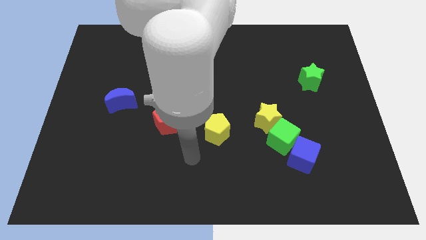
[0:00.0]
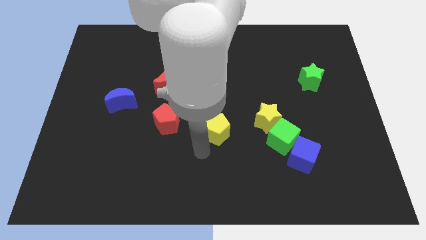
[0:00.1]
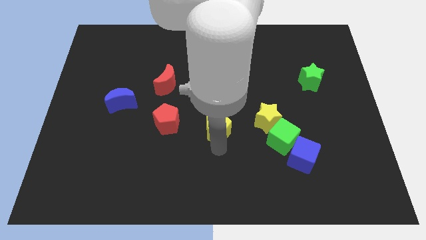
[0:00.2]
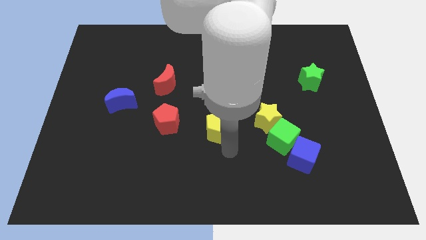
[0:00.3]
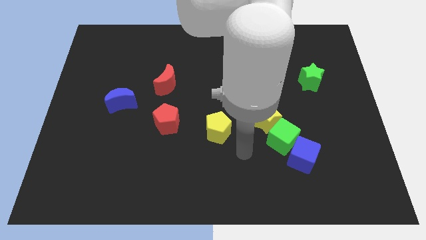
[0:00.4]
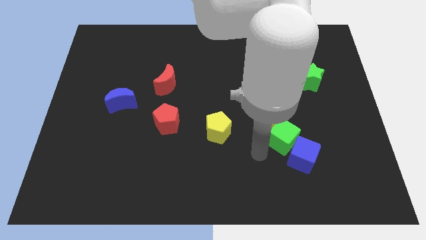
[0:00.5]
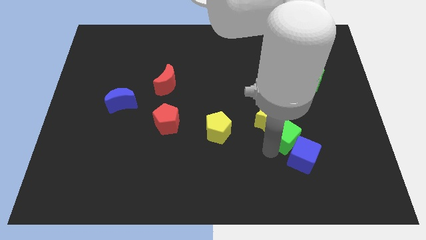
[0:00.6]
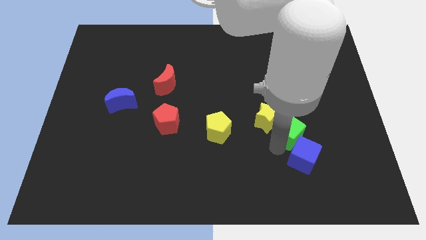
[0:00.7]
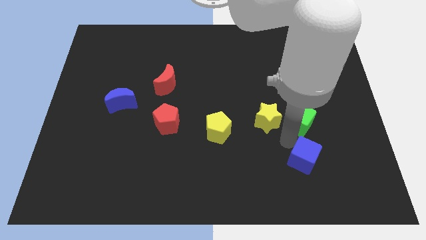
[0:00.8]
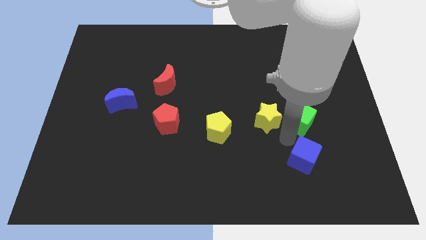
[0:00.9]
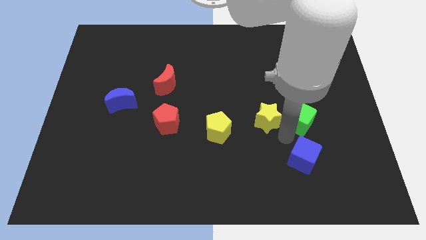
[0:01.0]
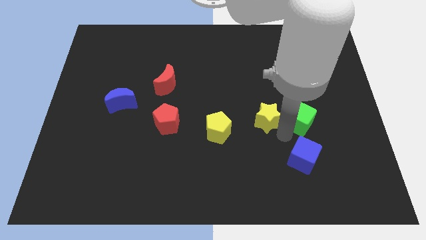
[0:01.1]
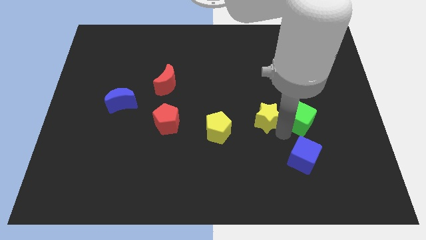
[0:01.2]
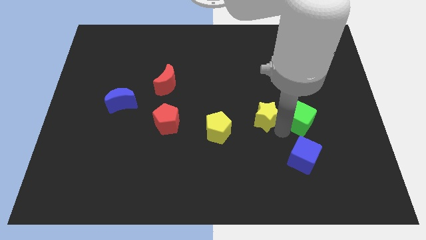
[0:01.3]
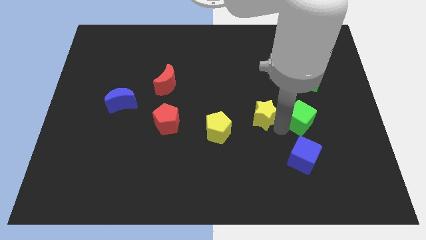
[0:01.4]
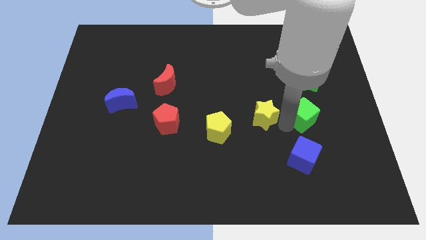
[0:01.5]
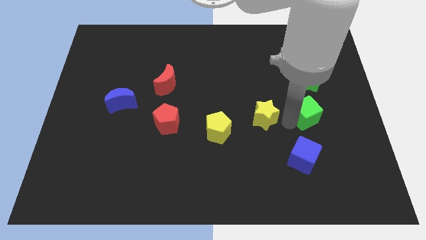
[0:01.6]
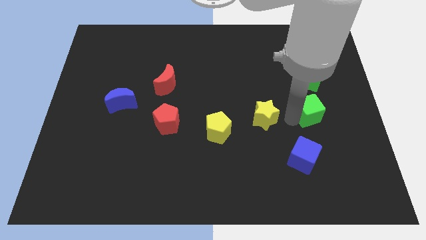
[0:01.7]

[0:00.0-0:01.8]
move the yellow star away from the green cube

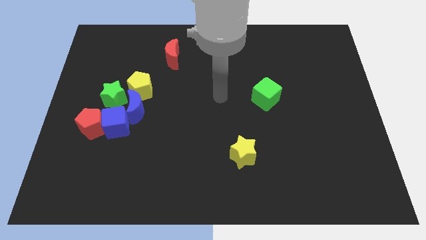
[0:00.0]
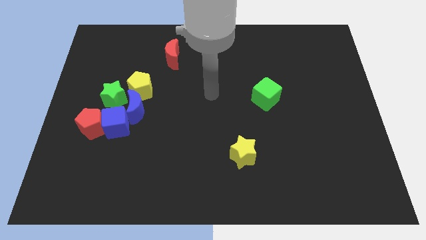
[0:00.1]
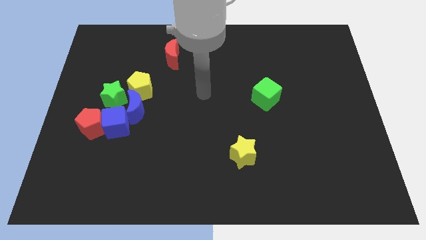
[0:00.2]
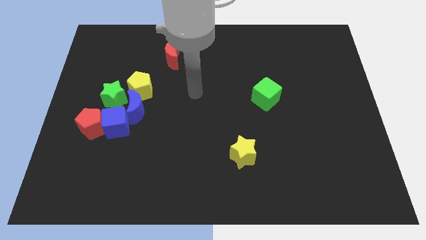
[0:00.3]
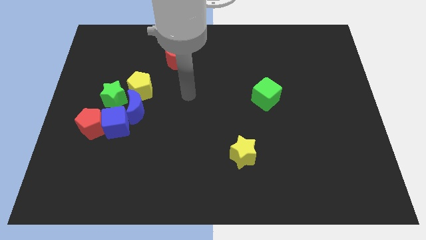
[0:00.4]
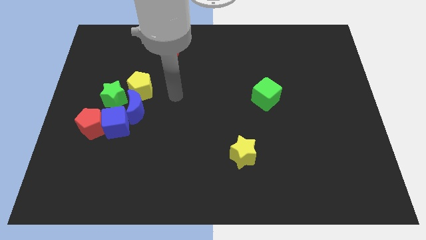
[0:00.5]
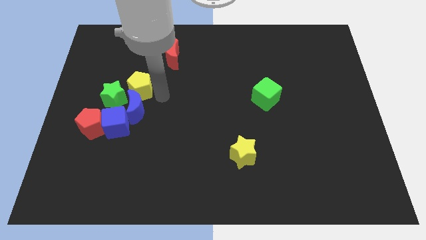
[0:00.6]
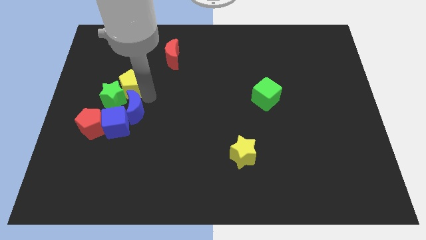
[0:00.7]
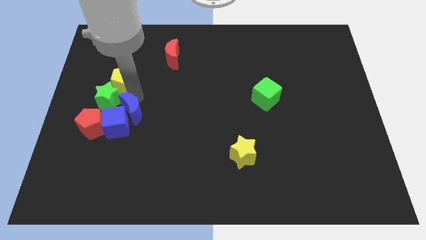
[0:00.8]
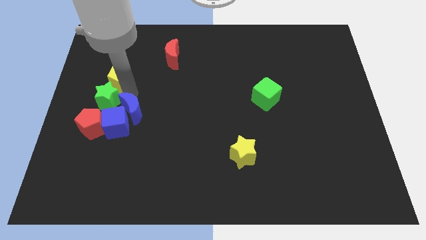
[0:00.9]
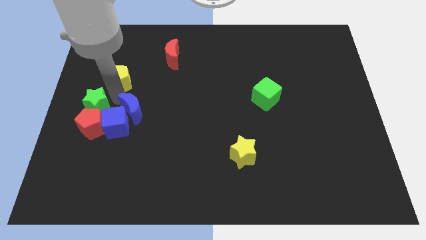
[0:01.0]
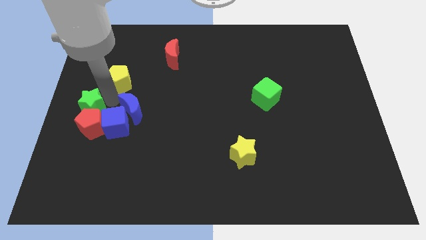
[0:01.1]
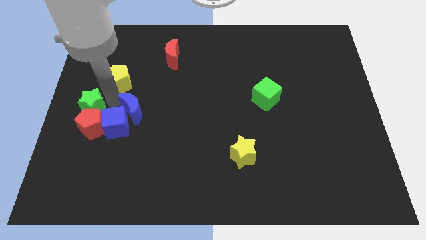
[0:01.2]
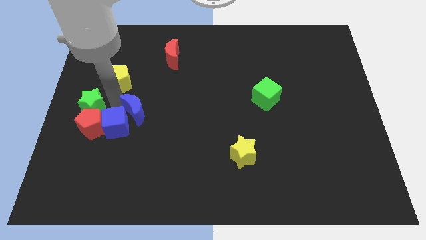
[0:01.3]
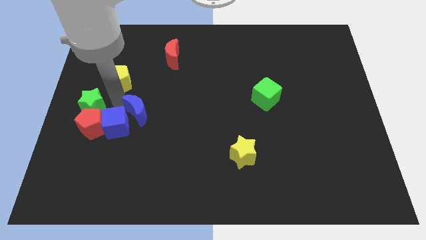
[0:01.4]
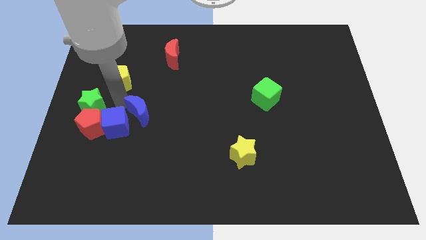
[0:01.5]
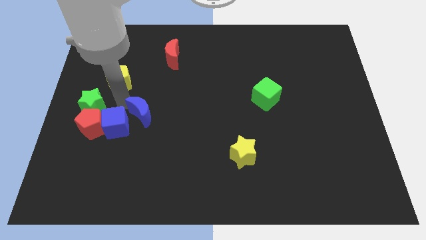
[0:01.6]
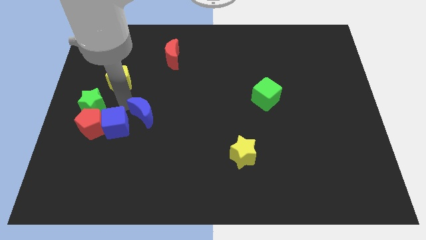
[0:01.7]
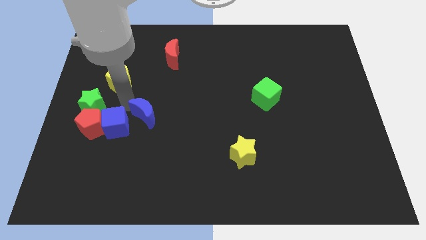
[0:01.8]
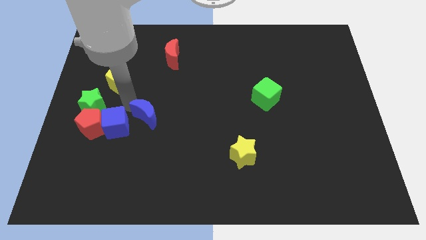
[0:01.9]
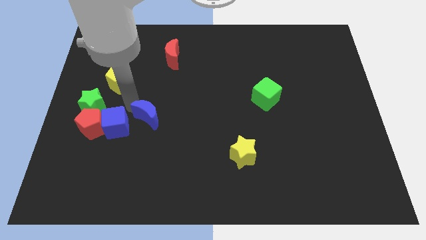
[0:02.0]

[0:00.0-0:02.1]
move the blue moon away from the clump

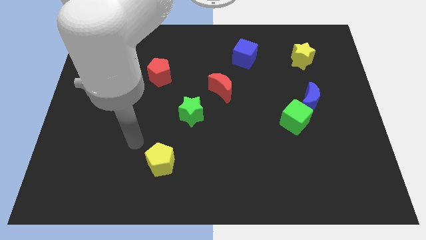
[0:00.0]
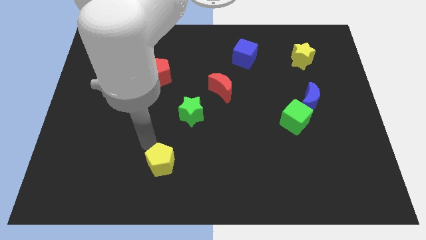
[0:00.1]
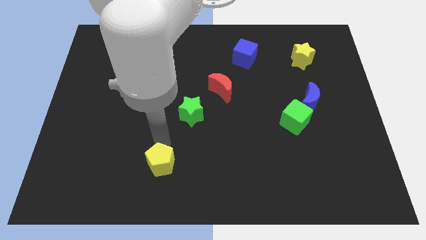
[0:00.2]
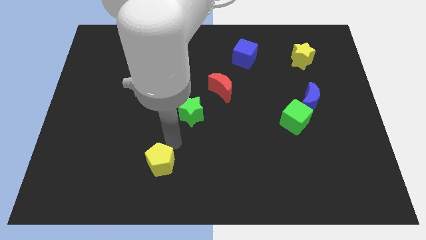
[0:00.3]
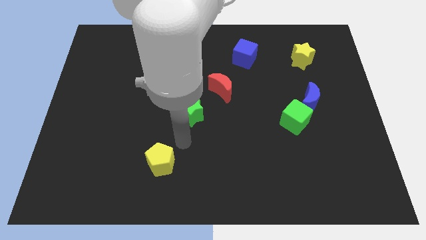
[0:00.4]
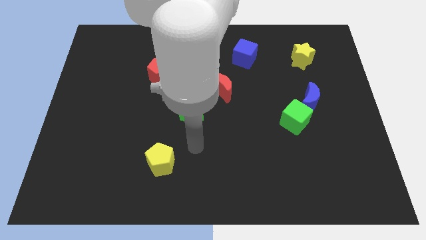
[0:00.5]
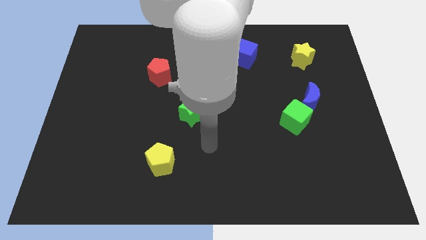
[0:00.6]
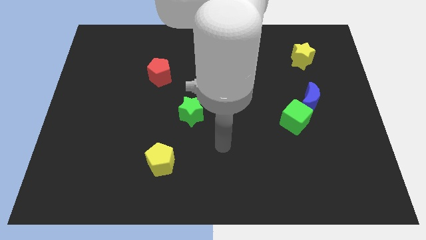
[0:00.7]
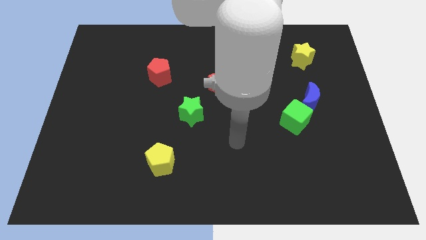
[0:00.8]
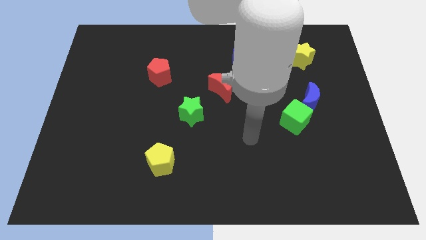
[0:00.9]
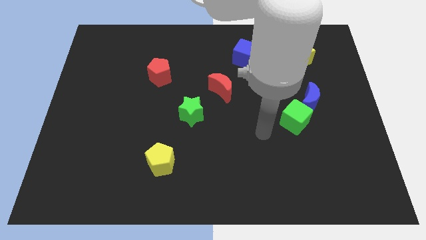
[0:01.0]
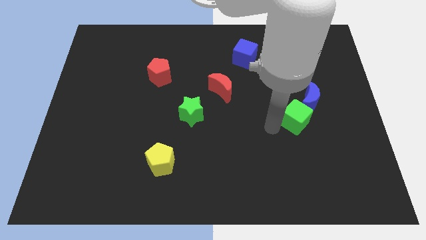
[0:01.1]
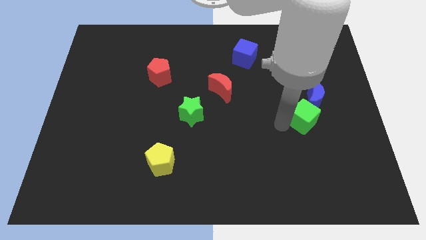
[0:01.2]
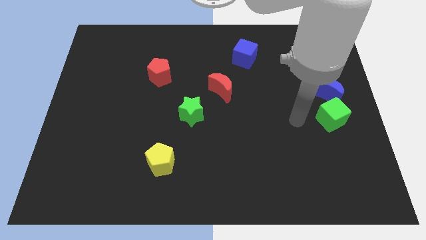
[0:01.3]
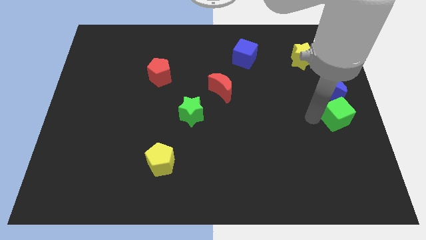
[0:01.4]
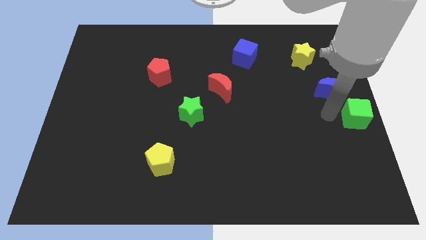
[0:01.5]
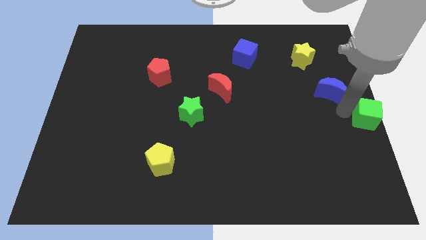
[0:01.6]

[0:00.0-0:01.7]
separate the blue moon from the green cube

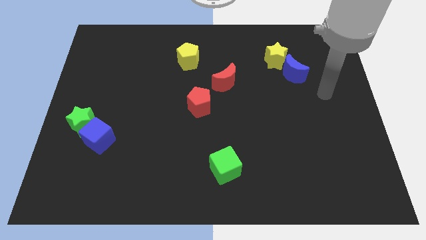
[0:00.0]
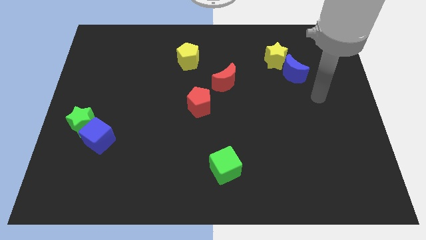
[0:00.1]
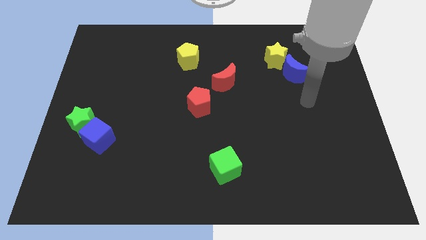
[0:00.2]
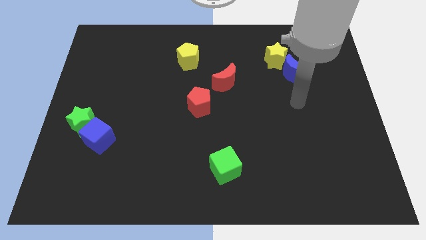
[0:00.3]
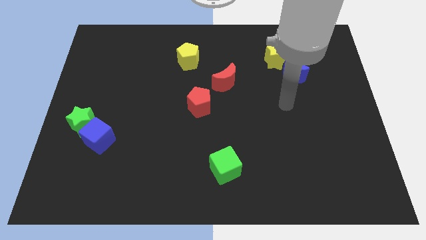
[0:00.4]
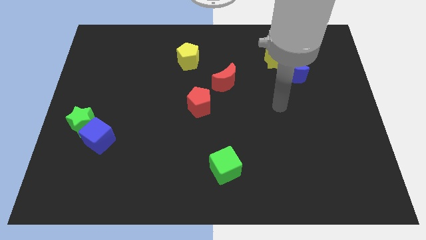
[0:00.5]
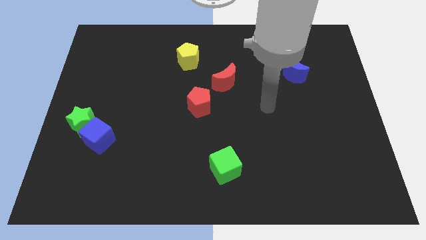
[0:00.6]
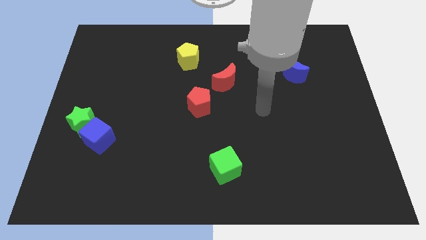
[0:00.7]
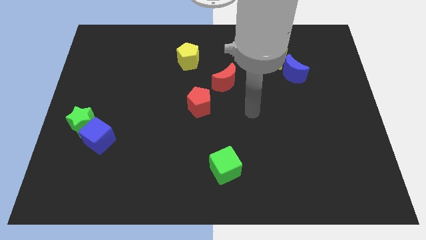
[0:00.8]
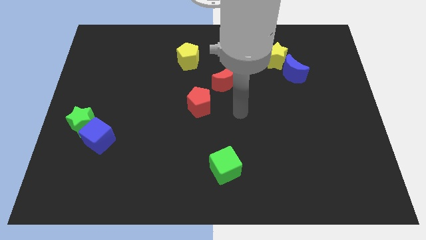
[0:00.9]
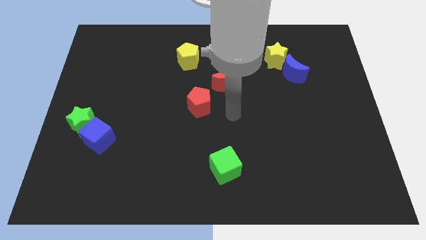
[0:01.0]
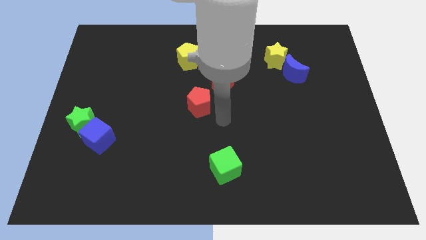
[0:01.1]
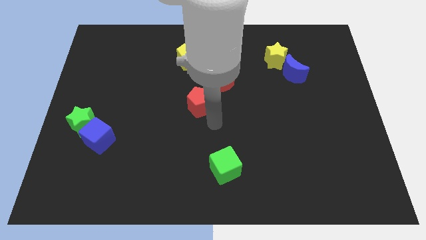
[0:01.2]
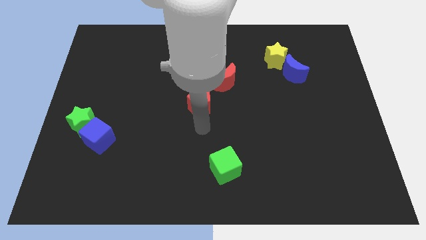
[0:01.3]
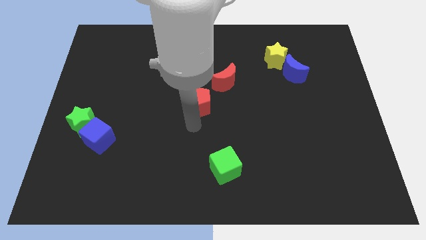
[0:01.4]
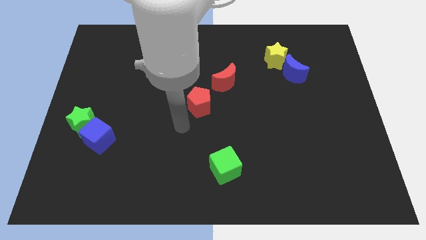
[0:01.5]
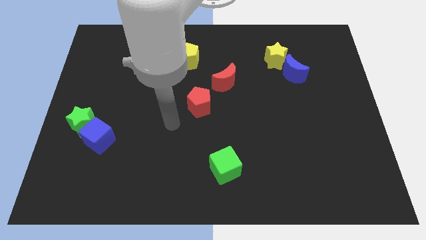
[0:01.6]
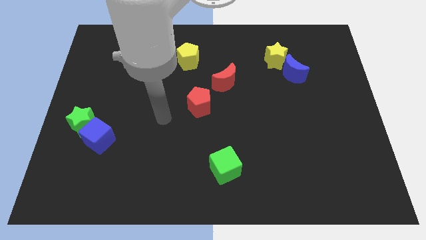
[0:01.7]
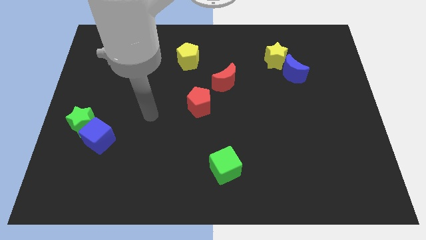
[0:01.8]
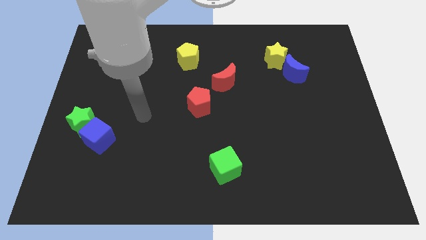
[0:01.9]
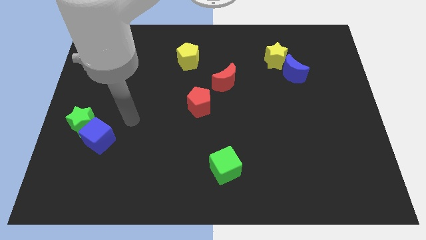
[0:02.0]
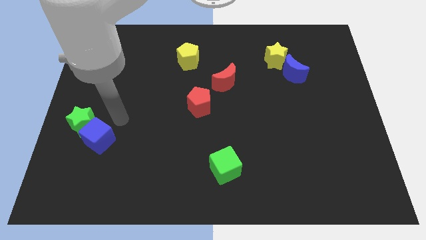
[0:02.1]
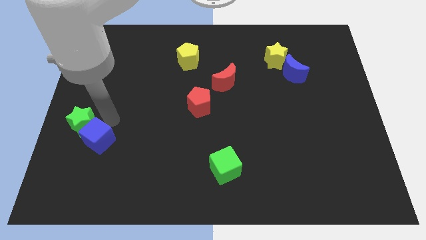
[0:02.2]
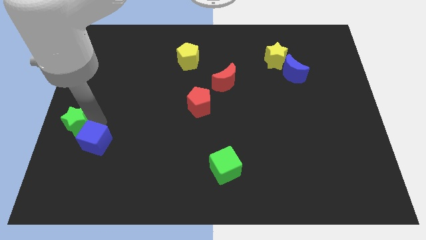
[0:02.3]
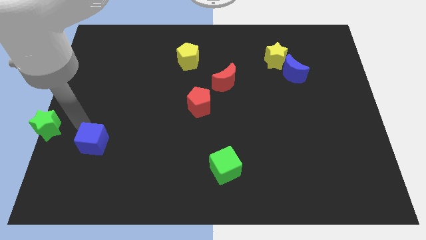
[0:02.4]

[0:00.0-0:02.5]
move the blue cube away from the green star

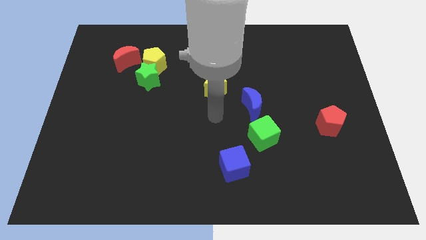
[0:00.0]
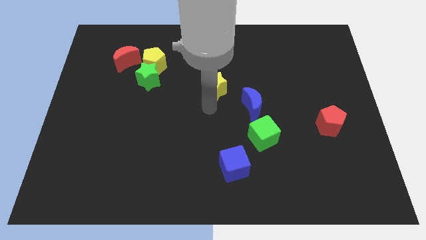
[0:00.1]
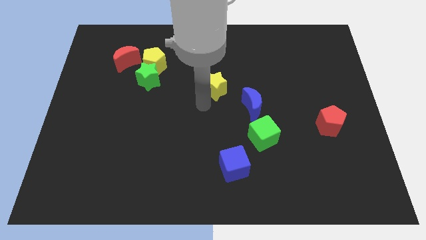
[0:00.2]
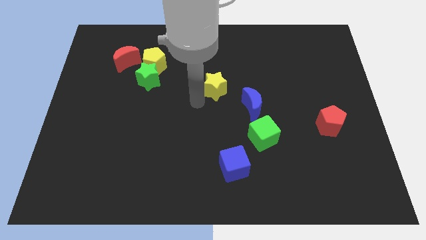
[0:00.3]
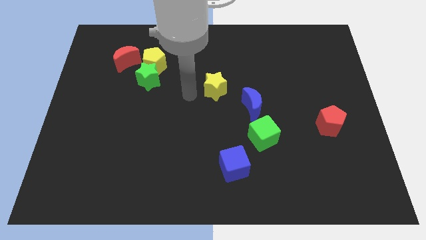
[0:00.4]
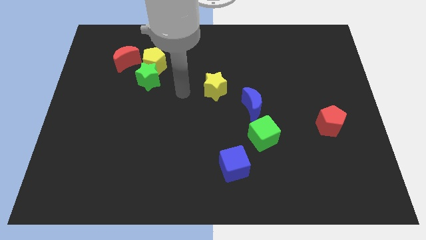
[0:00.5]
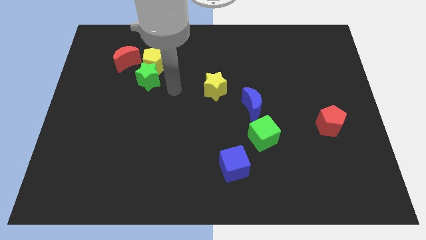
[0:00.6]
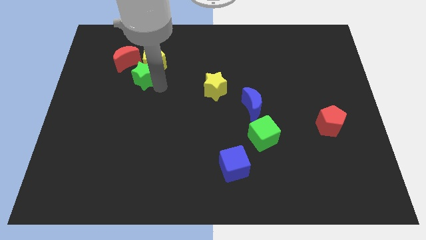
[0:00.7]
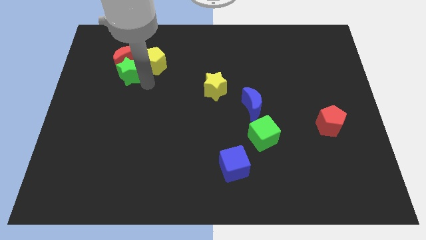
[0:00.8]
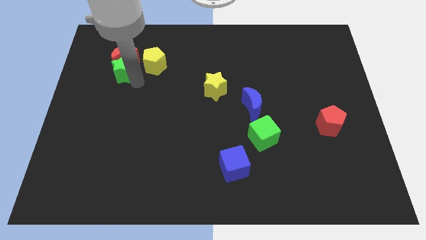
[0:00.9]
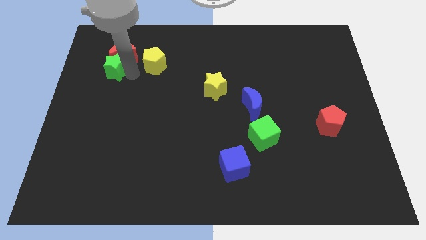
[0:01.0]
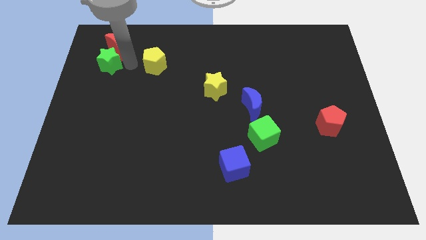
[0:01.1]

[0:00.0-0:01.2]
separate the yellow pentagon from the green star and red moon
